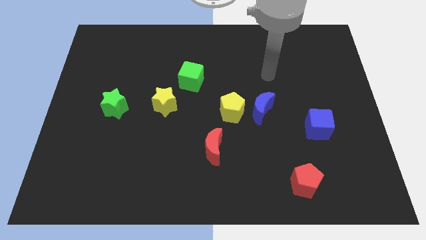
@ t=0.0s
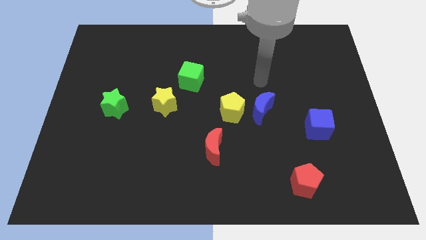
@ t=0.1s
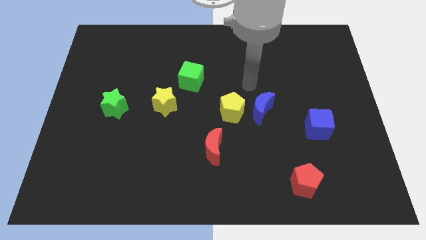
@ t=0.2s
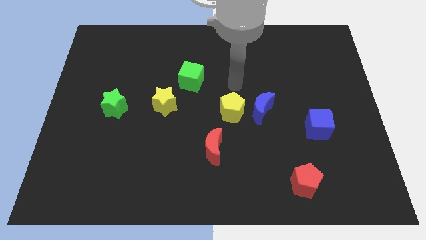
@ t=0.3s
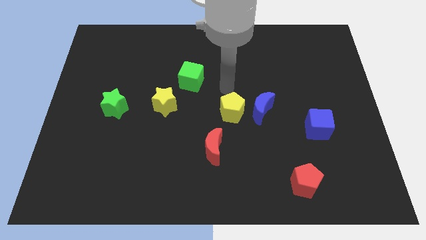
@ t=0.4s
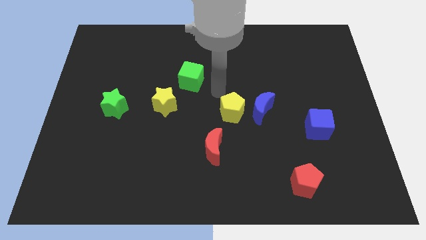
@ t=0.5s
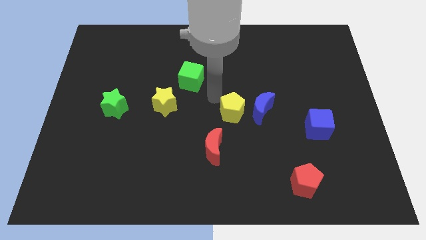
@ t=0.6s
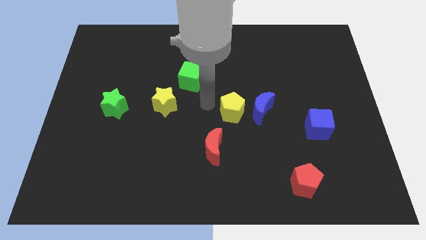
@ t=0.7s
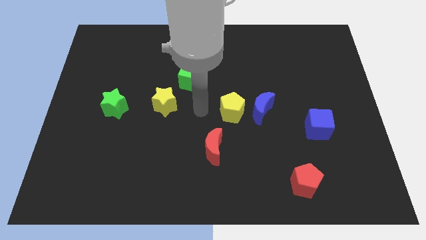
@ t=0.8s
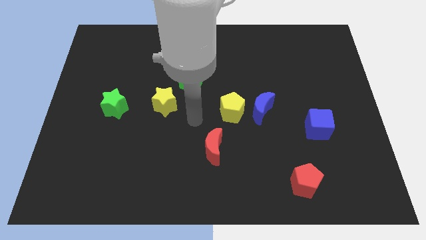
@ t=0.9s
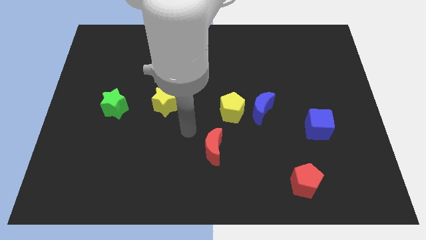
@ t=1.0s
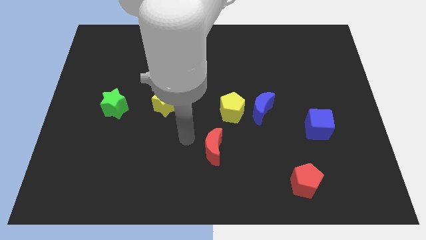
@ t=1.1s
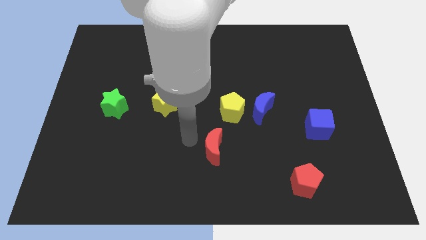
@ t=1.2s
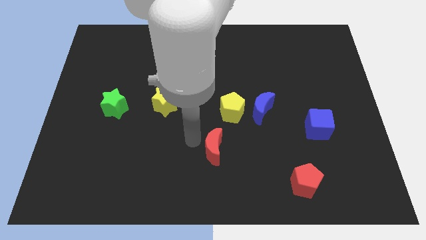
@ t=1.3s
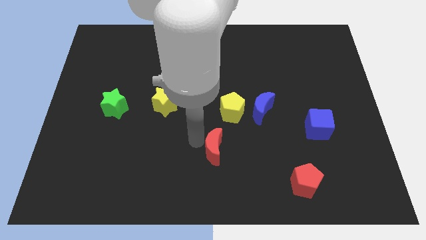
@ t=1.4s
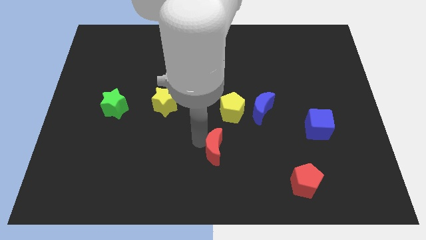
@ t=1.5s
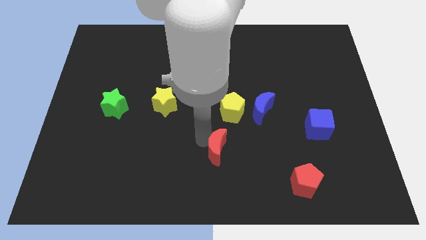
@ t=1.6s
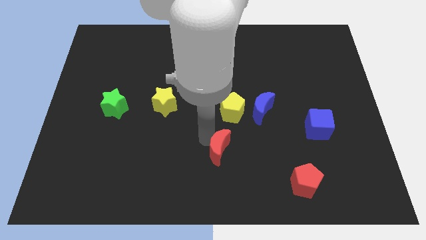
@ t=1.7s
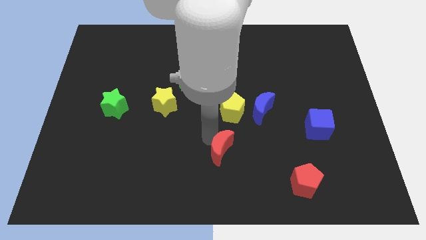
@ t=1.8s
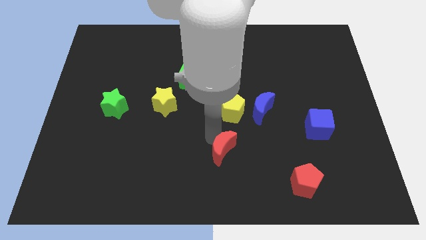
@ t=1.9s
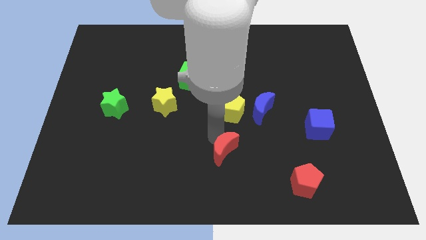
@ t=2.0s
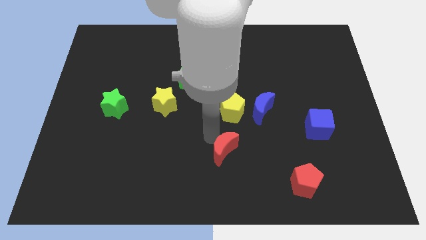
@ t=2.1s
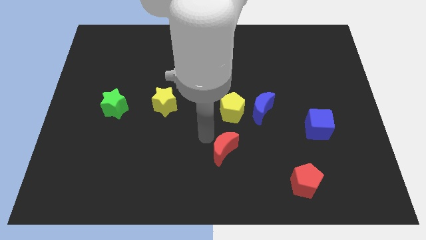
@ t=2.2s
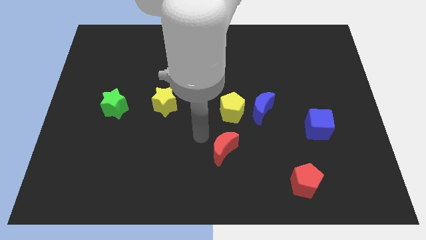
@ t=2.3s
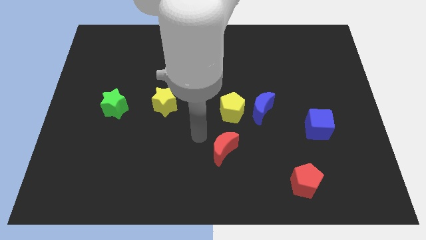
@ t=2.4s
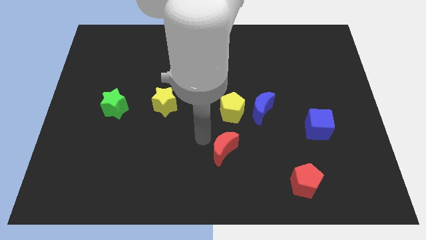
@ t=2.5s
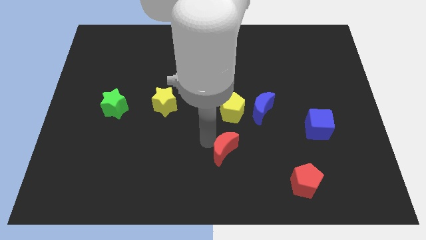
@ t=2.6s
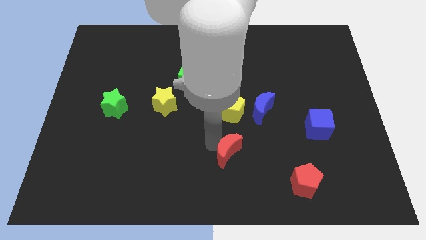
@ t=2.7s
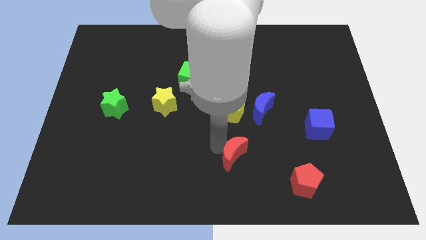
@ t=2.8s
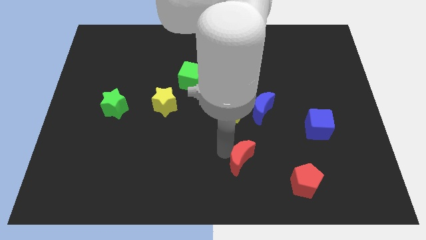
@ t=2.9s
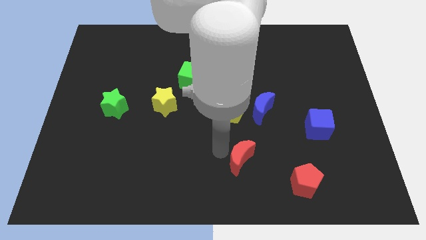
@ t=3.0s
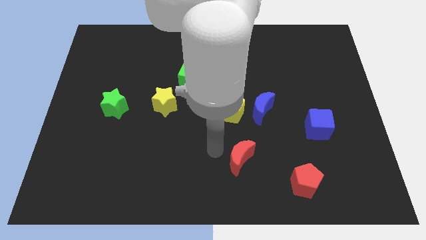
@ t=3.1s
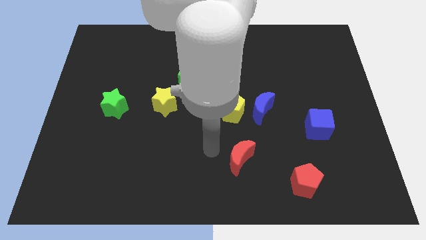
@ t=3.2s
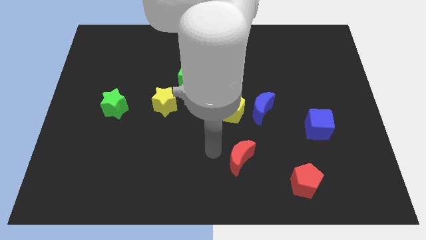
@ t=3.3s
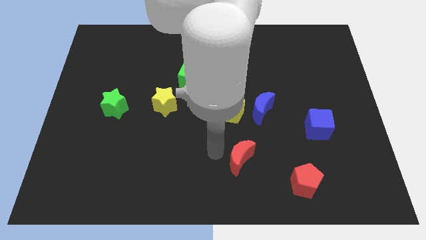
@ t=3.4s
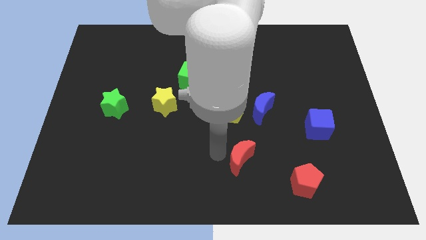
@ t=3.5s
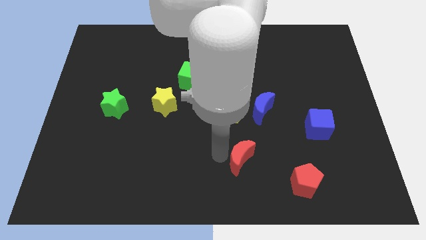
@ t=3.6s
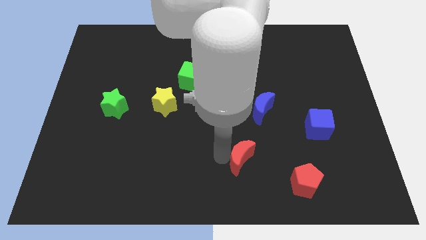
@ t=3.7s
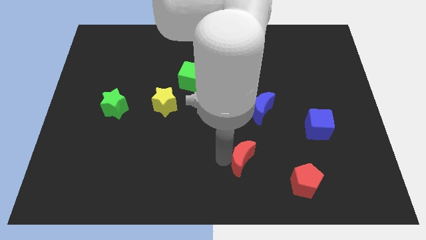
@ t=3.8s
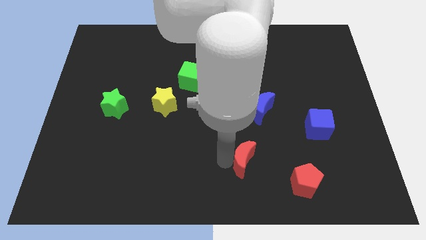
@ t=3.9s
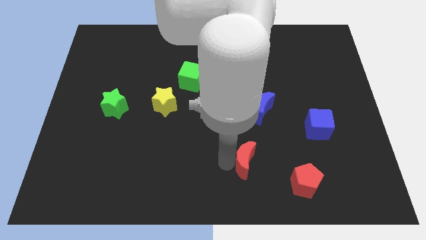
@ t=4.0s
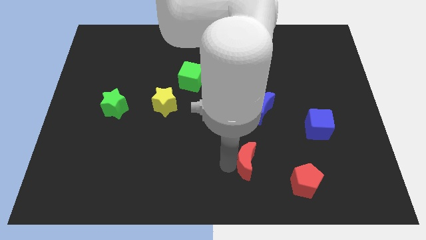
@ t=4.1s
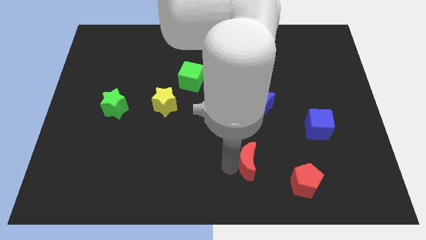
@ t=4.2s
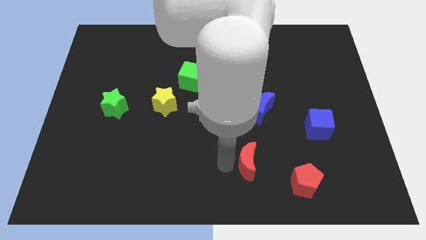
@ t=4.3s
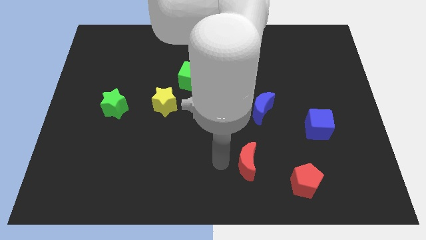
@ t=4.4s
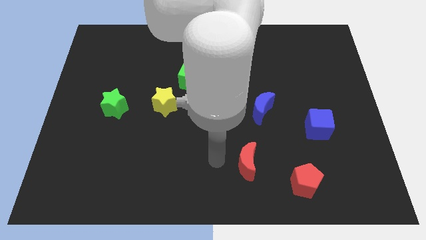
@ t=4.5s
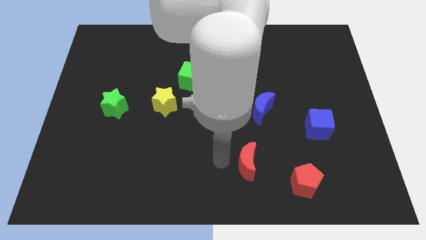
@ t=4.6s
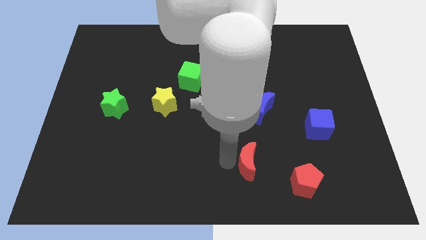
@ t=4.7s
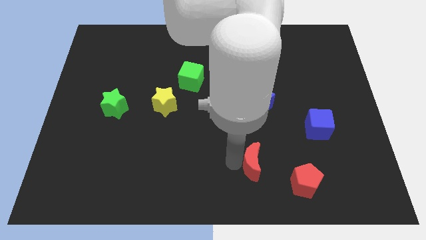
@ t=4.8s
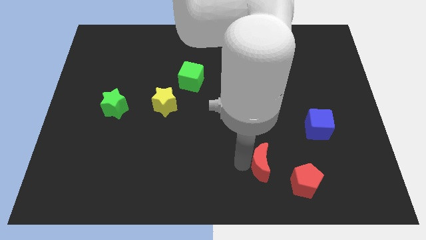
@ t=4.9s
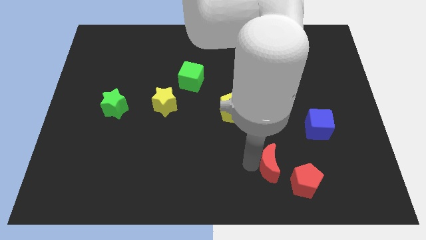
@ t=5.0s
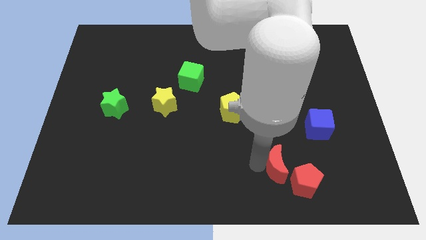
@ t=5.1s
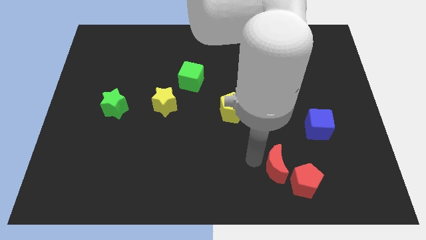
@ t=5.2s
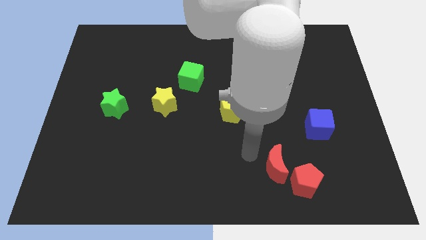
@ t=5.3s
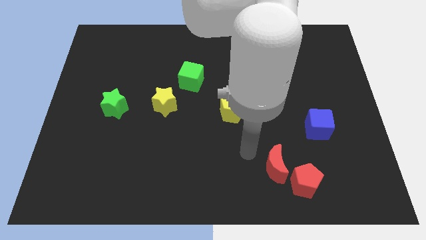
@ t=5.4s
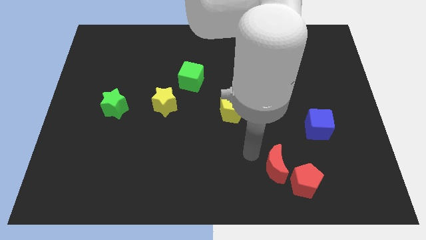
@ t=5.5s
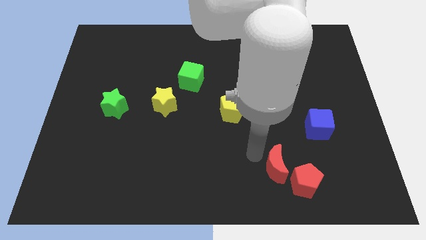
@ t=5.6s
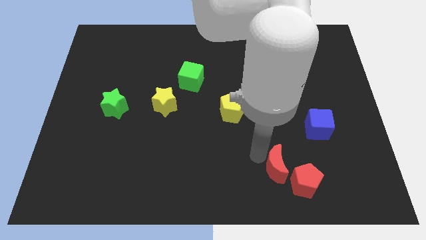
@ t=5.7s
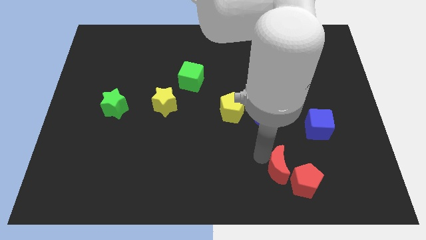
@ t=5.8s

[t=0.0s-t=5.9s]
push the red moon towards the red pentagon

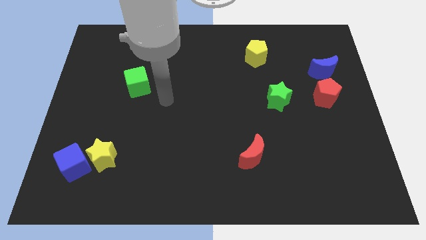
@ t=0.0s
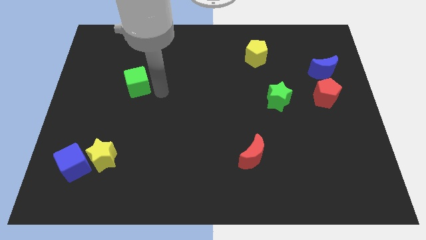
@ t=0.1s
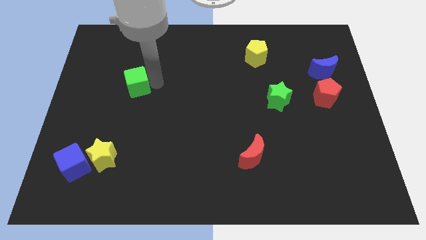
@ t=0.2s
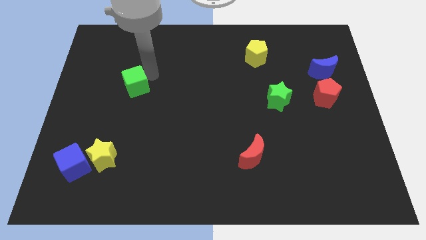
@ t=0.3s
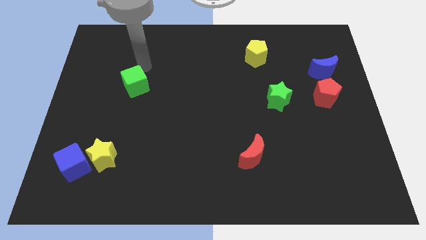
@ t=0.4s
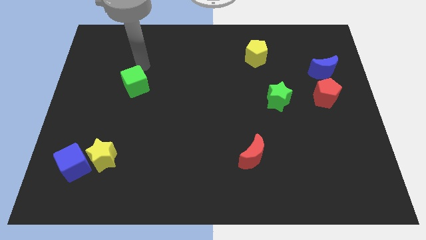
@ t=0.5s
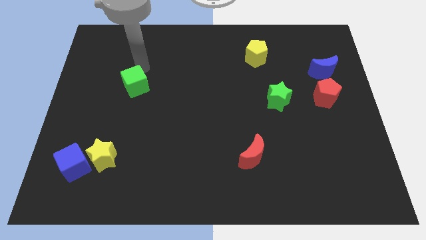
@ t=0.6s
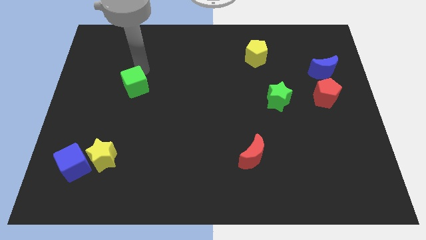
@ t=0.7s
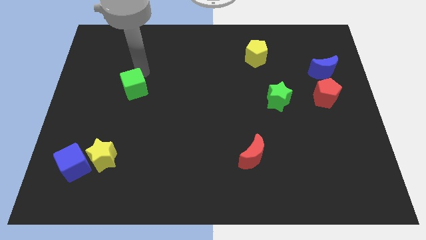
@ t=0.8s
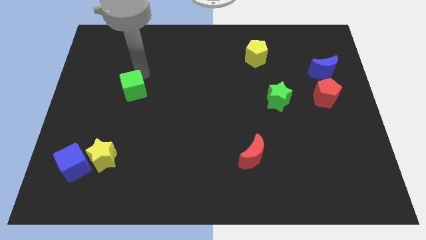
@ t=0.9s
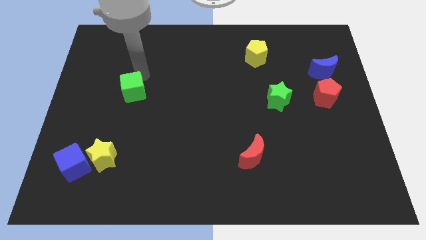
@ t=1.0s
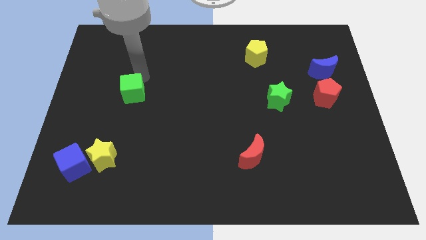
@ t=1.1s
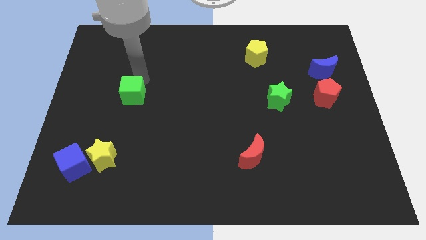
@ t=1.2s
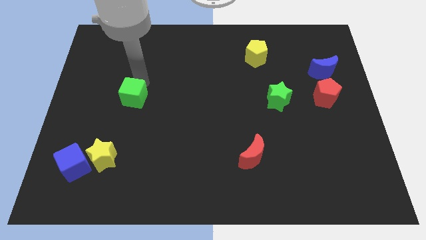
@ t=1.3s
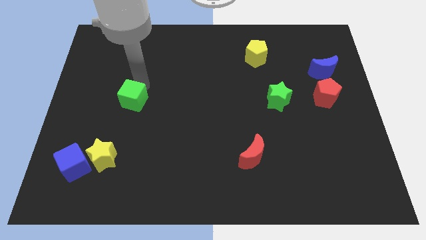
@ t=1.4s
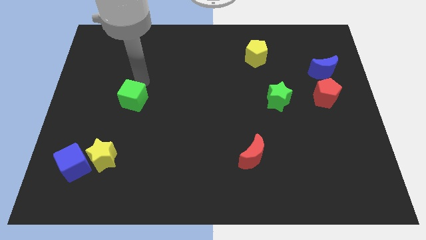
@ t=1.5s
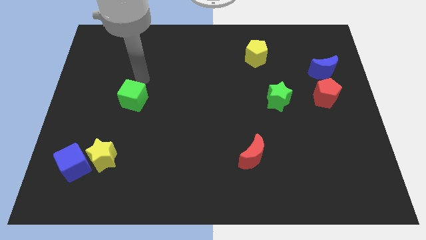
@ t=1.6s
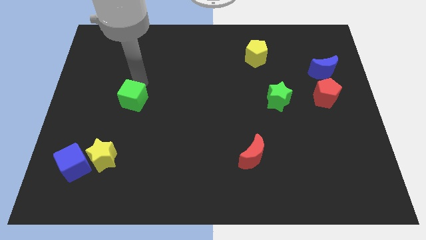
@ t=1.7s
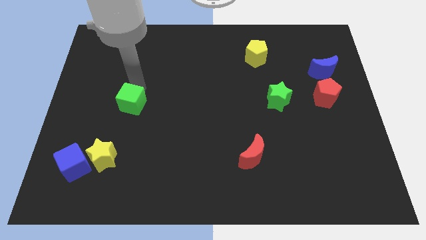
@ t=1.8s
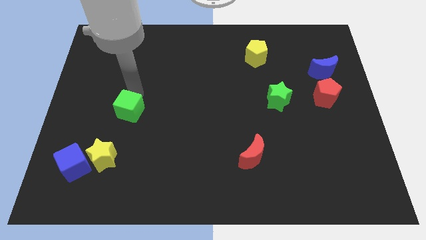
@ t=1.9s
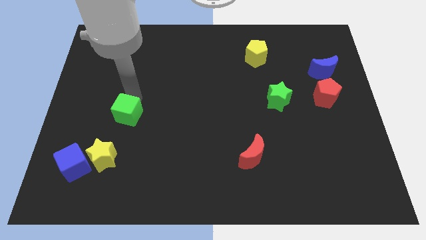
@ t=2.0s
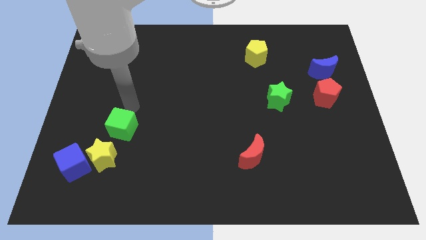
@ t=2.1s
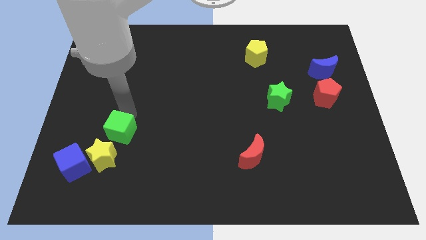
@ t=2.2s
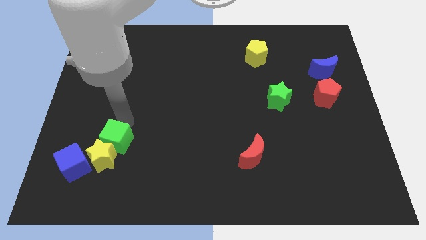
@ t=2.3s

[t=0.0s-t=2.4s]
push the green cube towards the yellow star
